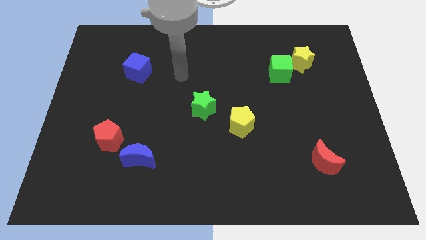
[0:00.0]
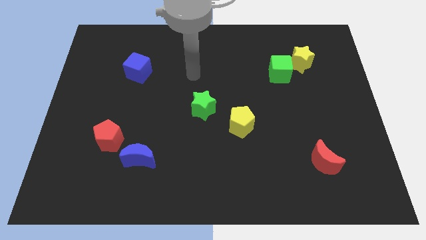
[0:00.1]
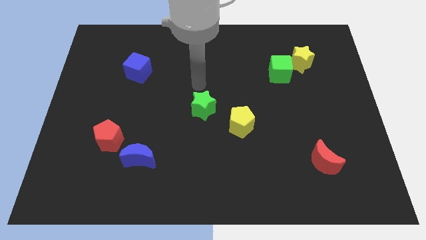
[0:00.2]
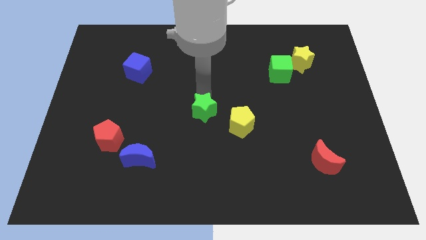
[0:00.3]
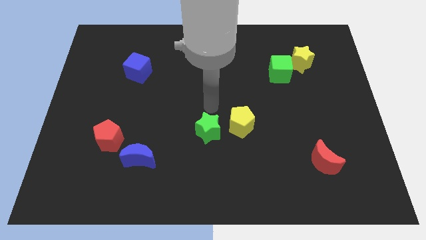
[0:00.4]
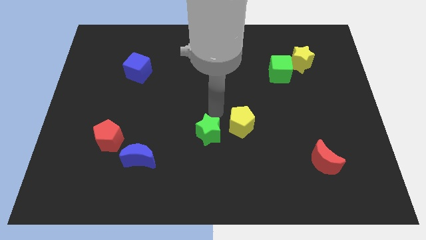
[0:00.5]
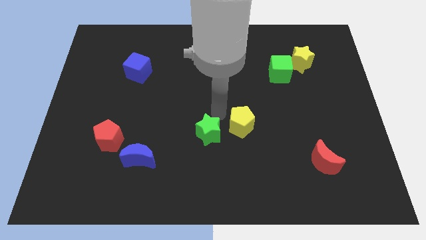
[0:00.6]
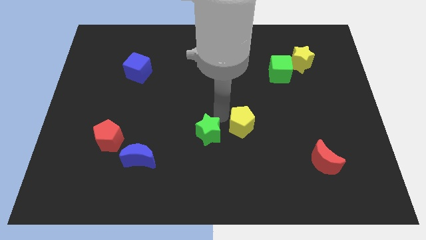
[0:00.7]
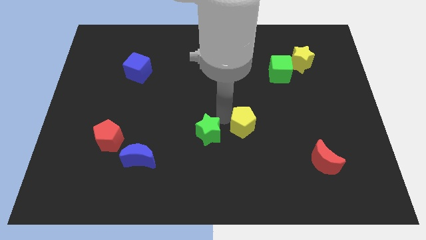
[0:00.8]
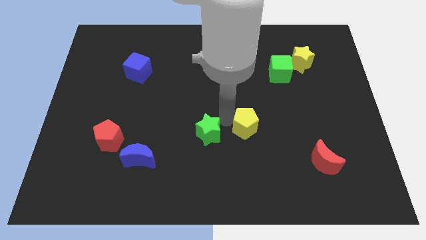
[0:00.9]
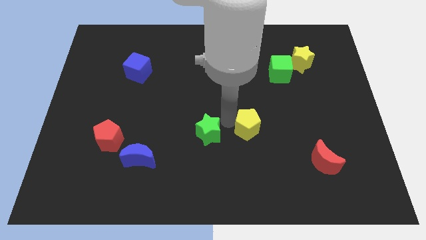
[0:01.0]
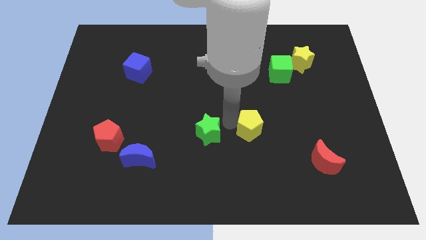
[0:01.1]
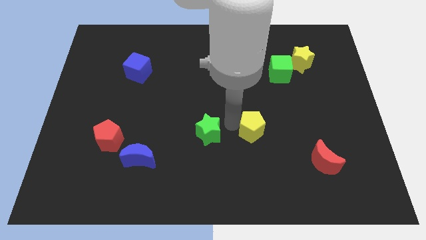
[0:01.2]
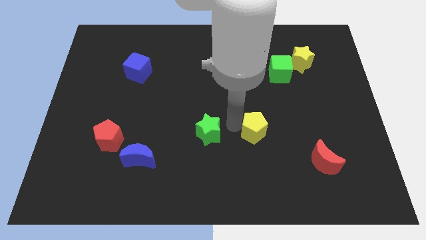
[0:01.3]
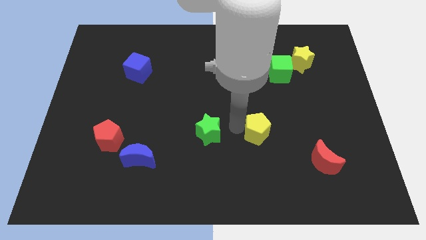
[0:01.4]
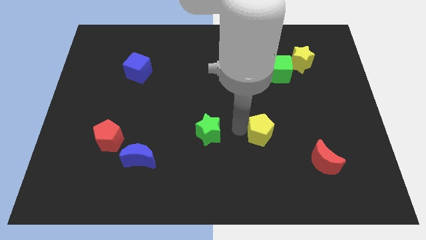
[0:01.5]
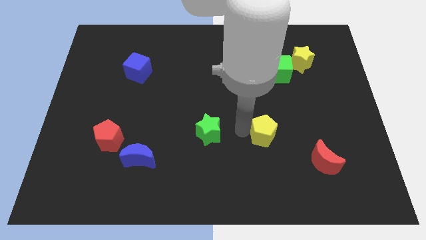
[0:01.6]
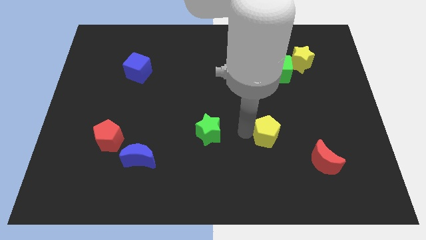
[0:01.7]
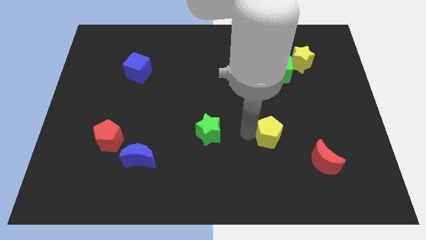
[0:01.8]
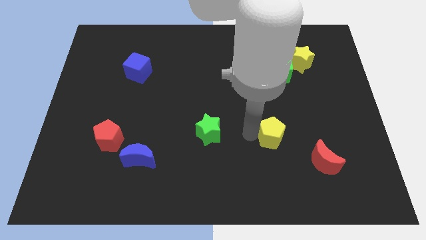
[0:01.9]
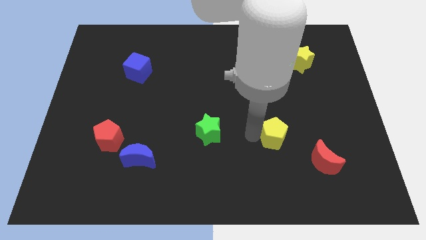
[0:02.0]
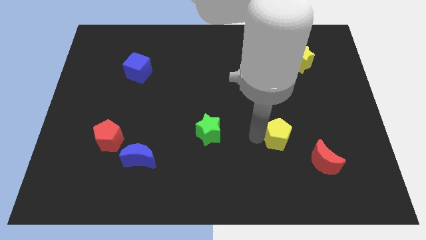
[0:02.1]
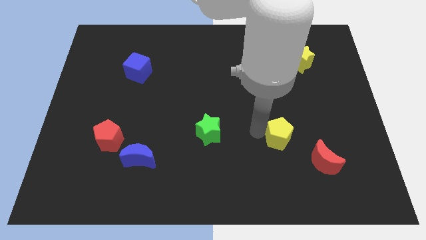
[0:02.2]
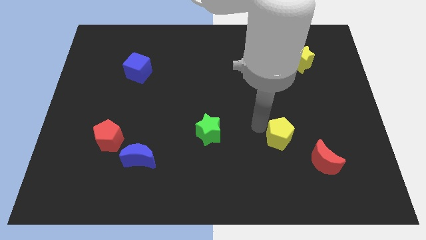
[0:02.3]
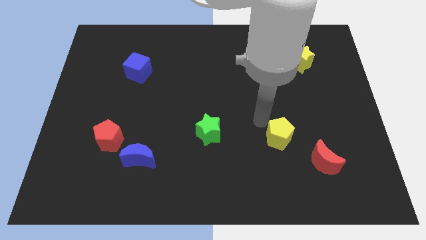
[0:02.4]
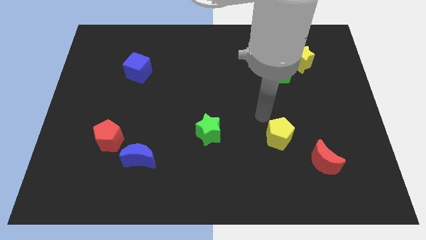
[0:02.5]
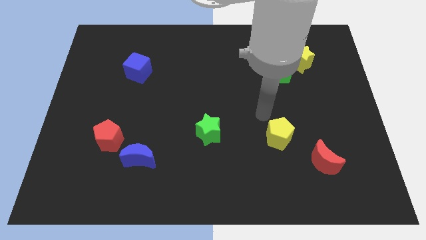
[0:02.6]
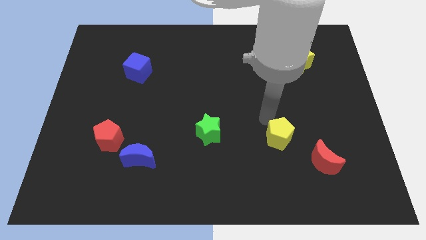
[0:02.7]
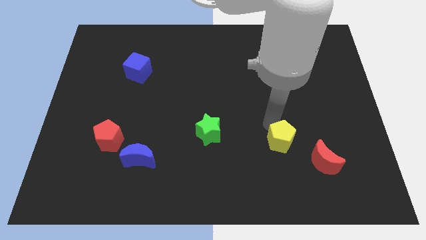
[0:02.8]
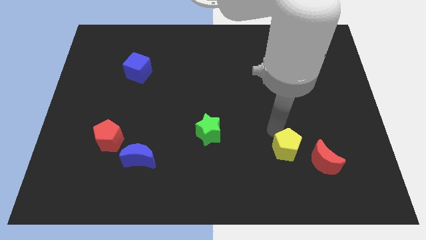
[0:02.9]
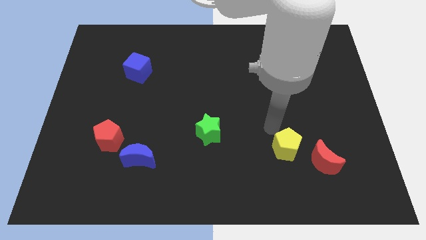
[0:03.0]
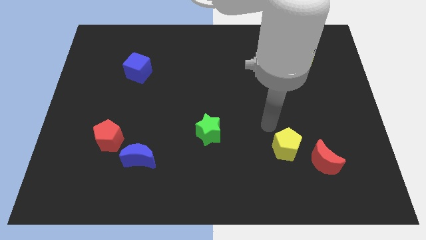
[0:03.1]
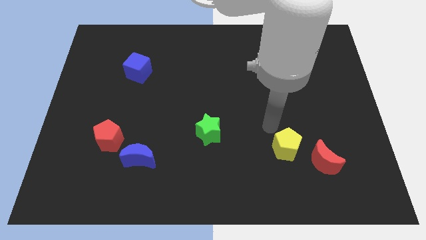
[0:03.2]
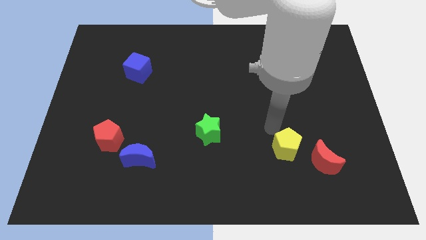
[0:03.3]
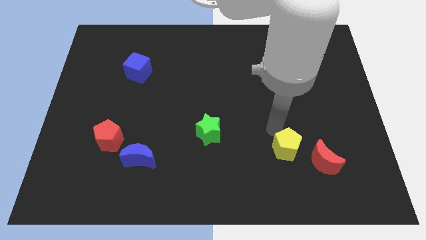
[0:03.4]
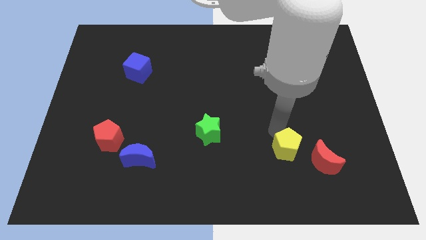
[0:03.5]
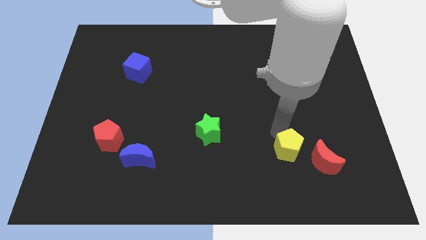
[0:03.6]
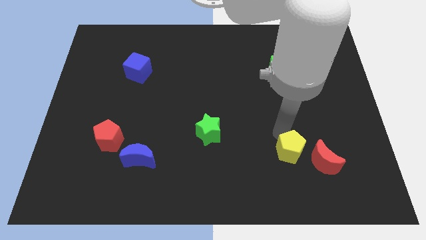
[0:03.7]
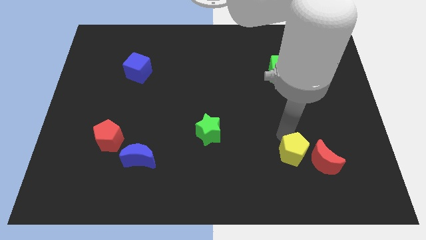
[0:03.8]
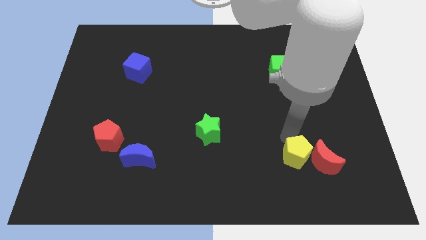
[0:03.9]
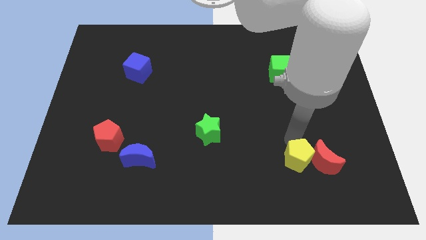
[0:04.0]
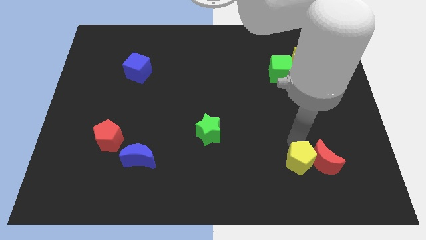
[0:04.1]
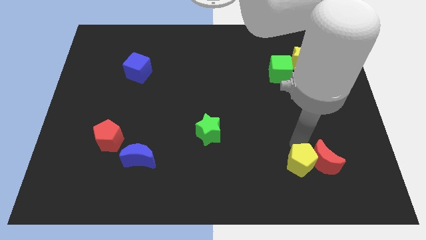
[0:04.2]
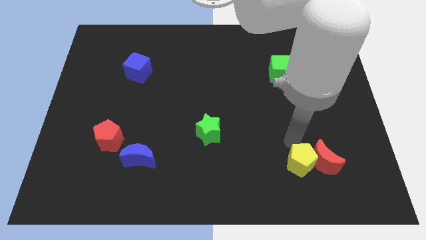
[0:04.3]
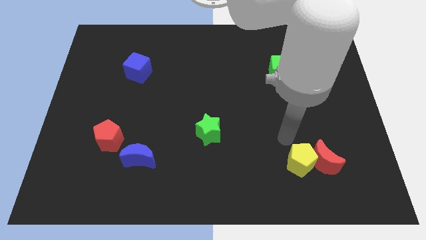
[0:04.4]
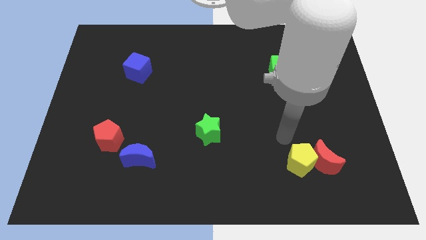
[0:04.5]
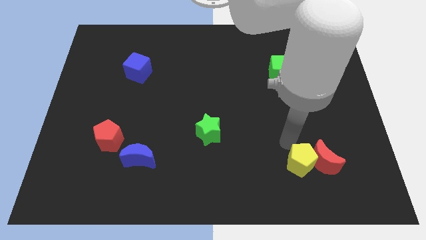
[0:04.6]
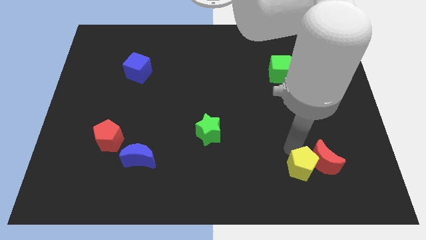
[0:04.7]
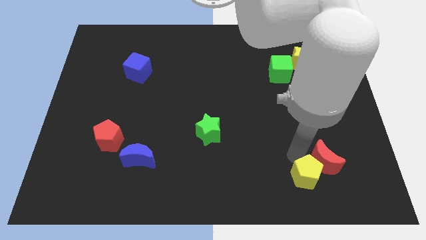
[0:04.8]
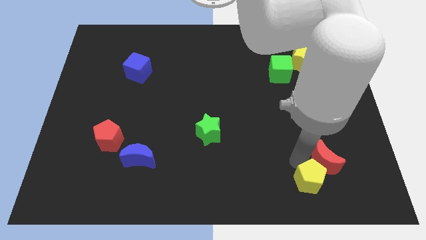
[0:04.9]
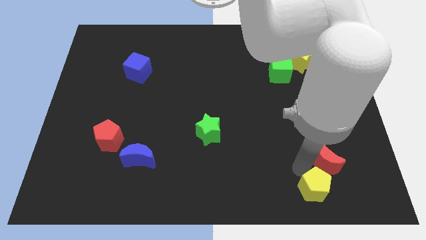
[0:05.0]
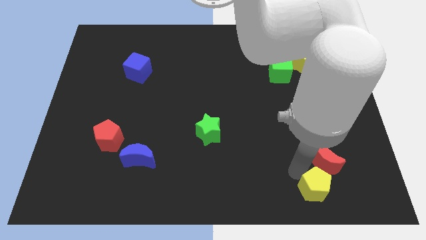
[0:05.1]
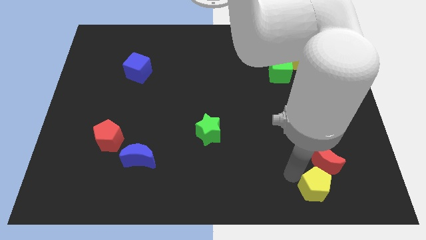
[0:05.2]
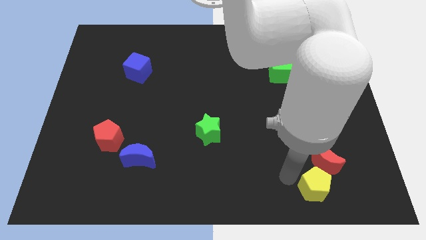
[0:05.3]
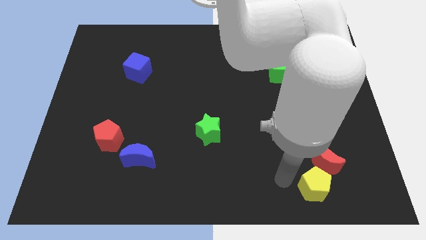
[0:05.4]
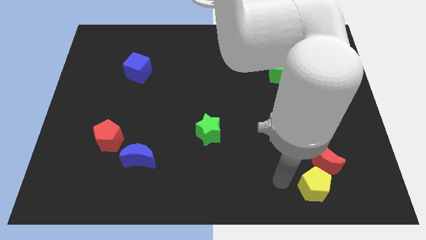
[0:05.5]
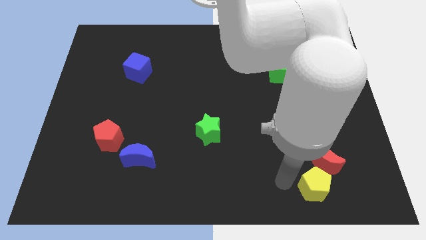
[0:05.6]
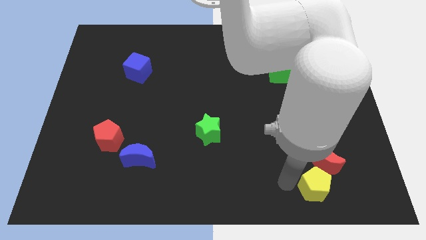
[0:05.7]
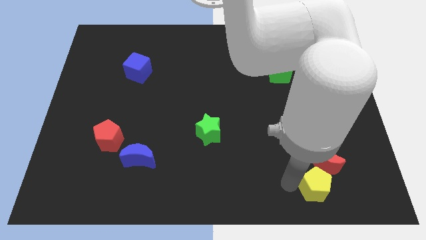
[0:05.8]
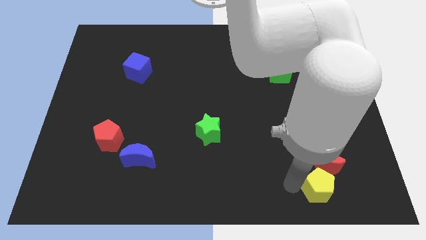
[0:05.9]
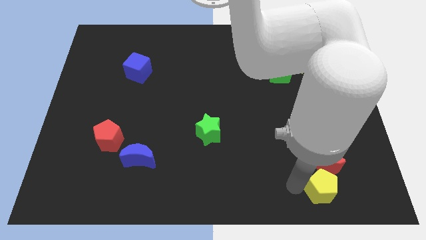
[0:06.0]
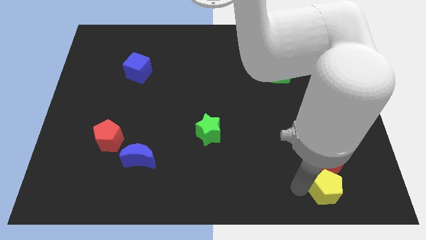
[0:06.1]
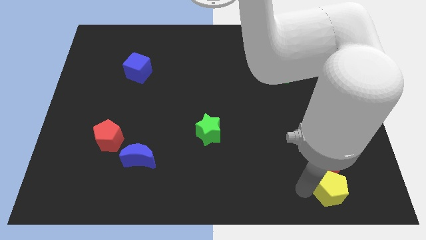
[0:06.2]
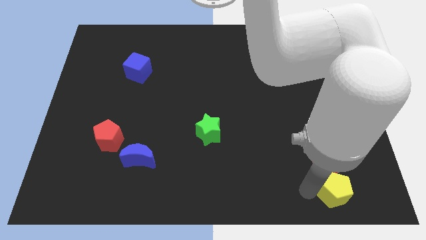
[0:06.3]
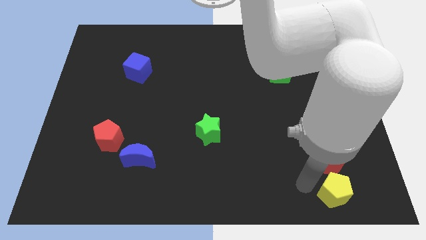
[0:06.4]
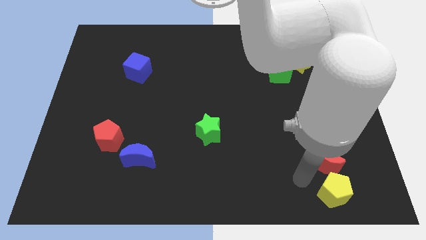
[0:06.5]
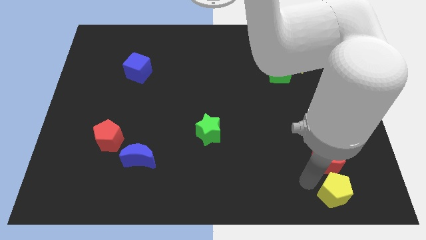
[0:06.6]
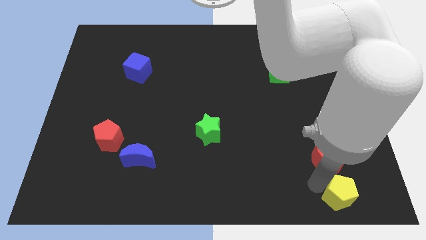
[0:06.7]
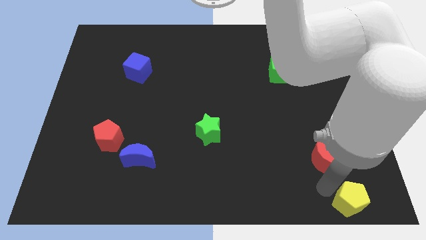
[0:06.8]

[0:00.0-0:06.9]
put the yellow pentagon to the bottom right of the board

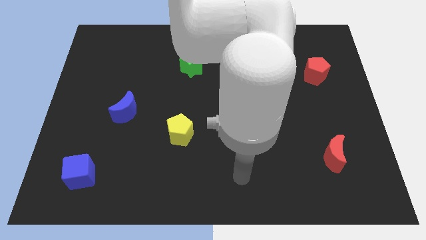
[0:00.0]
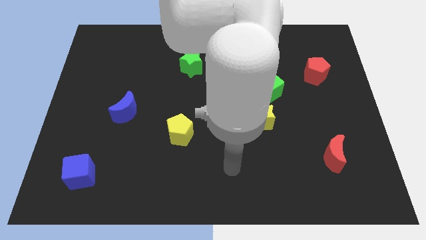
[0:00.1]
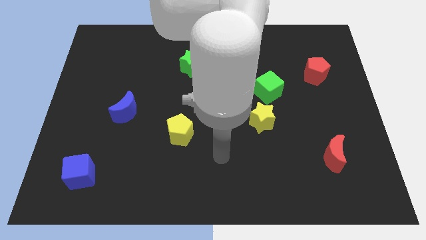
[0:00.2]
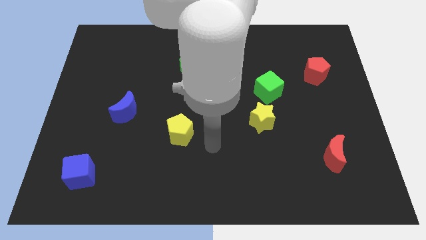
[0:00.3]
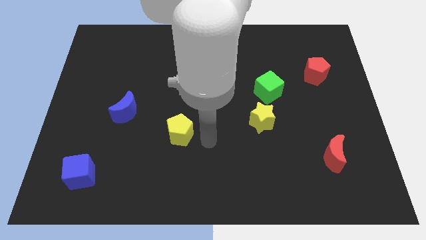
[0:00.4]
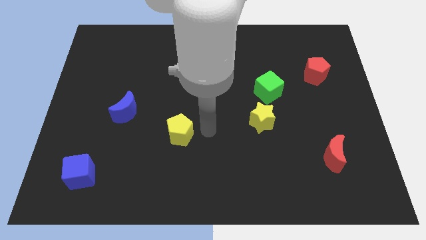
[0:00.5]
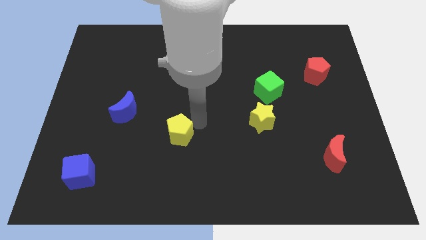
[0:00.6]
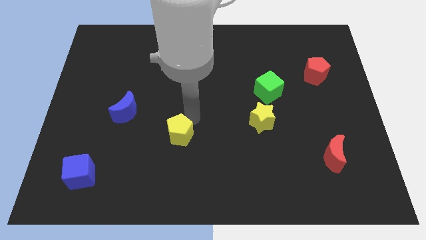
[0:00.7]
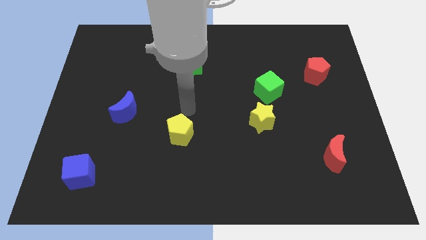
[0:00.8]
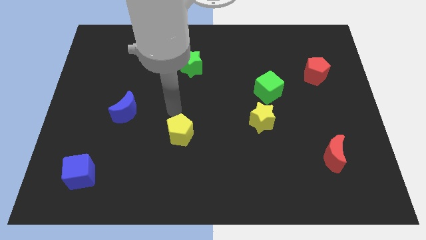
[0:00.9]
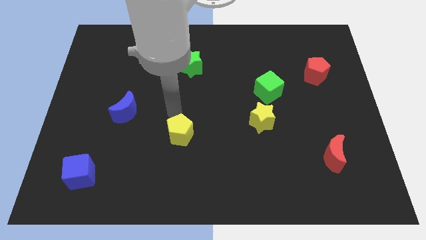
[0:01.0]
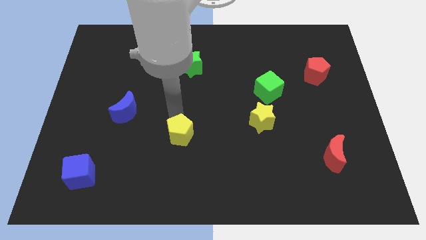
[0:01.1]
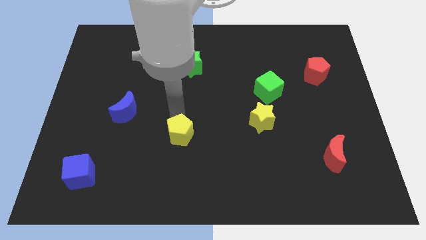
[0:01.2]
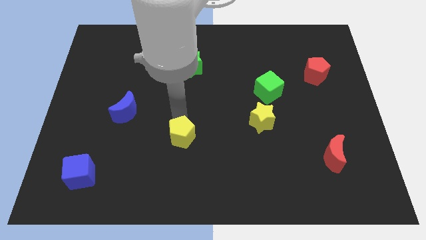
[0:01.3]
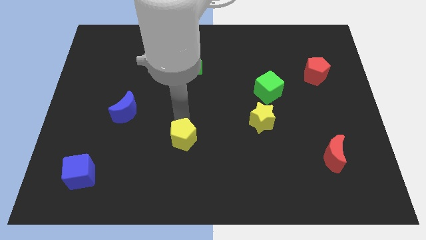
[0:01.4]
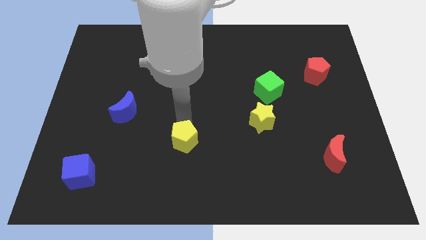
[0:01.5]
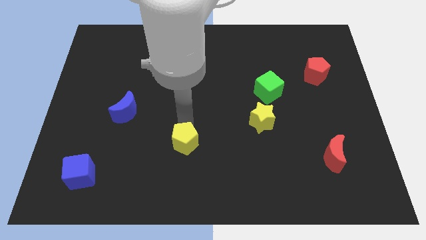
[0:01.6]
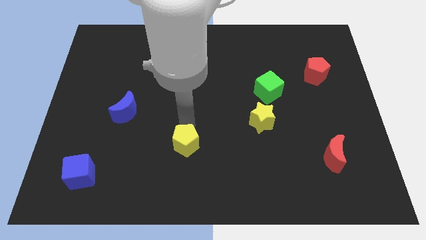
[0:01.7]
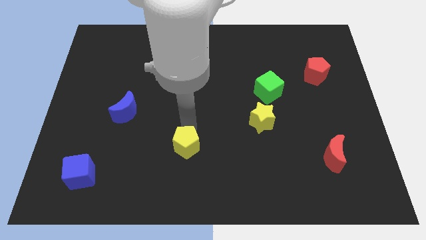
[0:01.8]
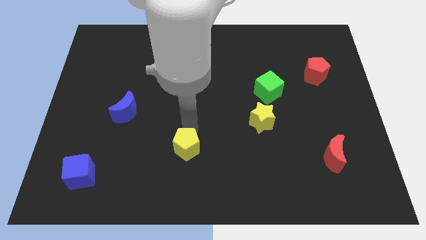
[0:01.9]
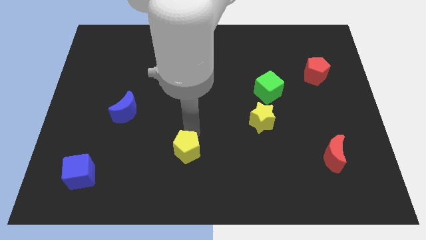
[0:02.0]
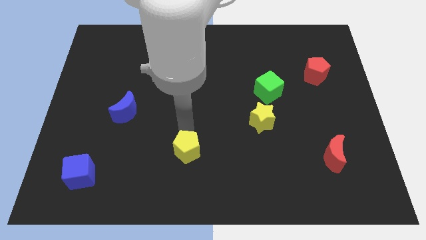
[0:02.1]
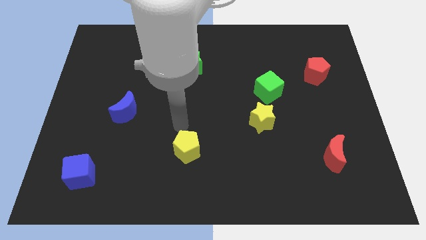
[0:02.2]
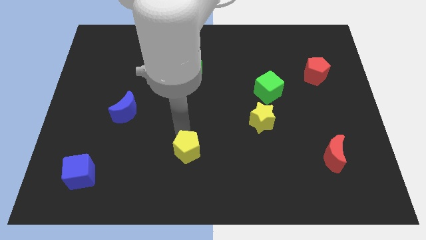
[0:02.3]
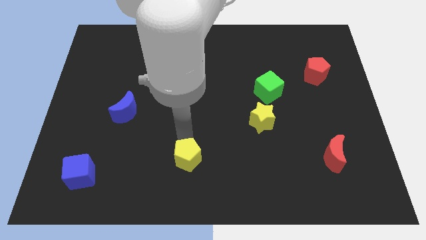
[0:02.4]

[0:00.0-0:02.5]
slide the yellow pentagon to the bottom
